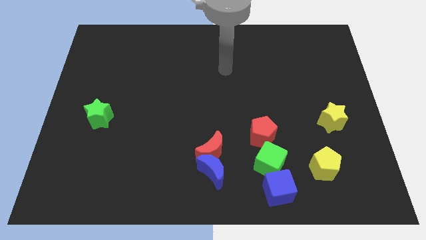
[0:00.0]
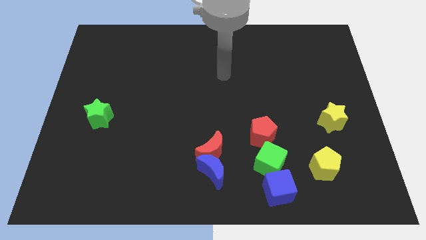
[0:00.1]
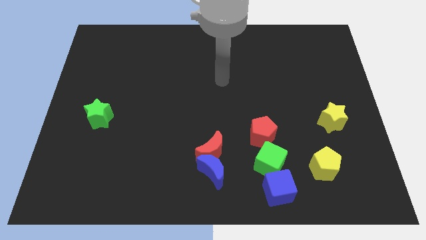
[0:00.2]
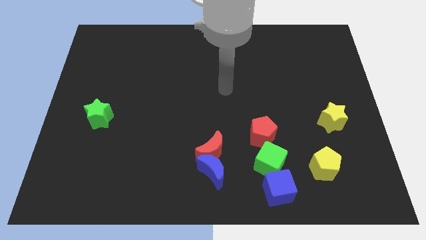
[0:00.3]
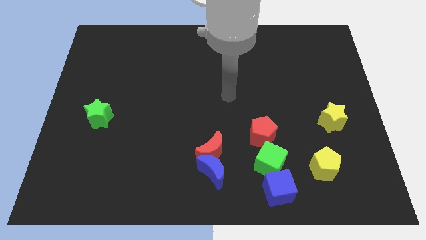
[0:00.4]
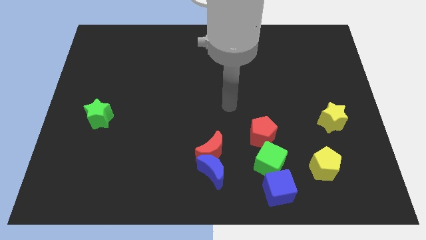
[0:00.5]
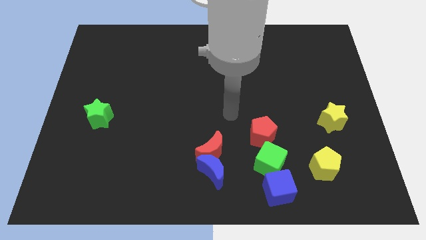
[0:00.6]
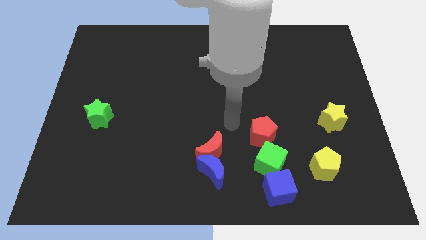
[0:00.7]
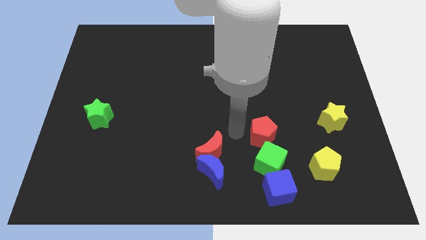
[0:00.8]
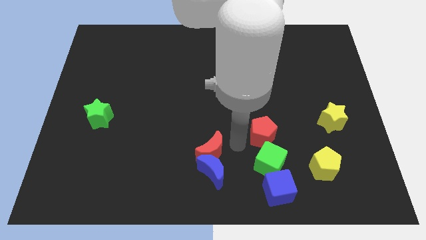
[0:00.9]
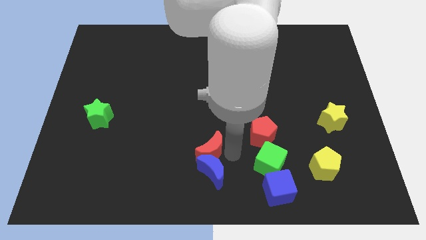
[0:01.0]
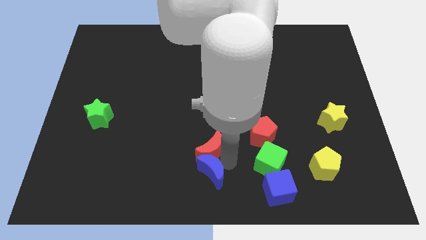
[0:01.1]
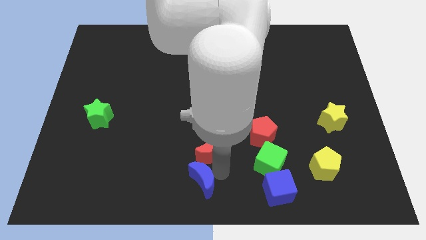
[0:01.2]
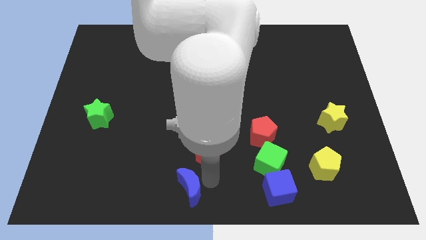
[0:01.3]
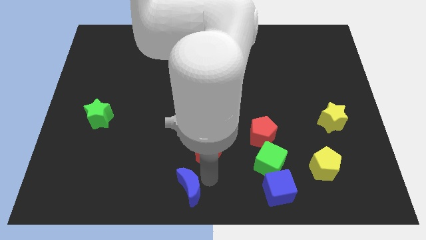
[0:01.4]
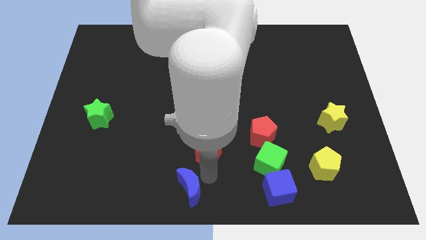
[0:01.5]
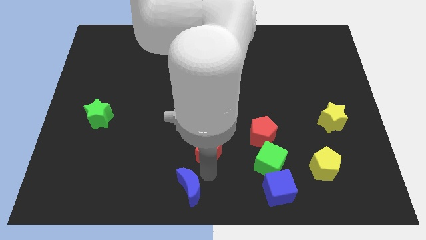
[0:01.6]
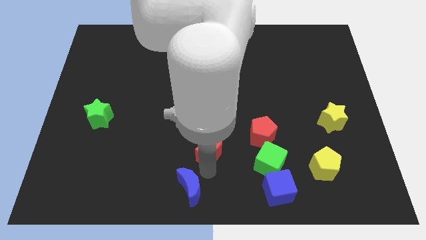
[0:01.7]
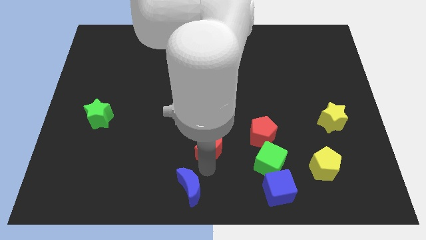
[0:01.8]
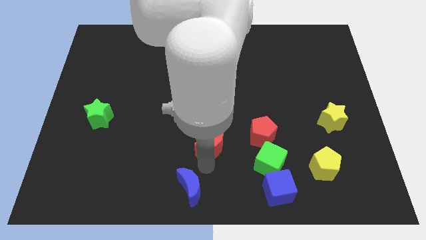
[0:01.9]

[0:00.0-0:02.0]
separate the red moon from the blue moon

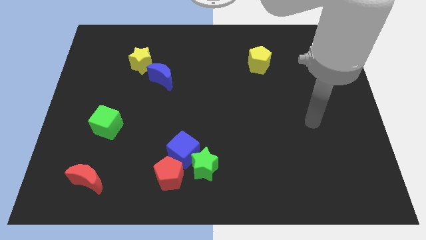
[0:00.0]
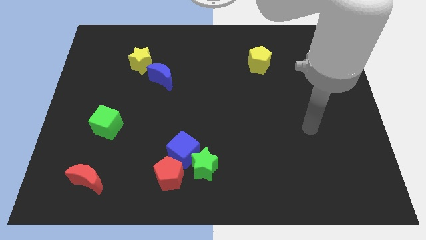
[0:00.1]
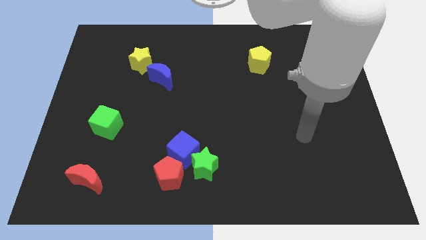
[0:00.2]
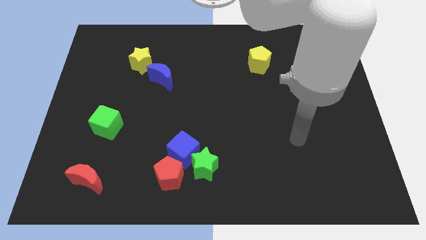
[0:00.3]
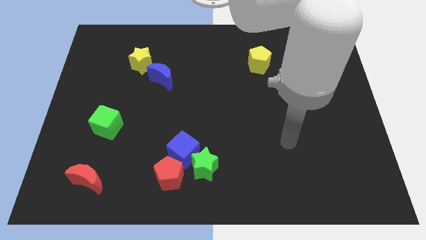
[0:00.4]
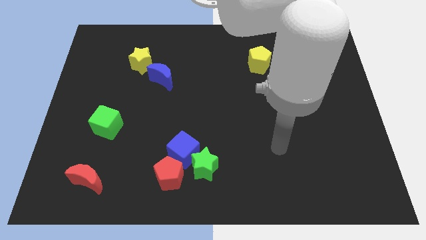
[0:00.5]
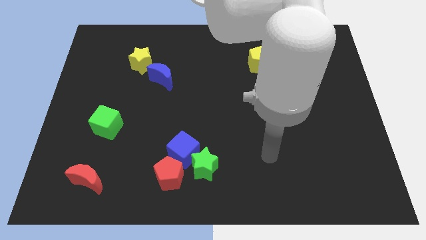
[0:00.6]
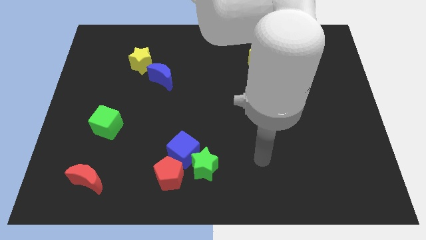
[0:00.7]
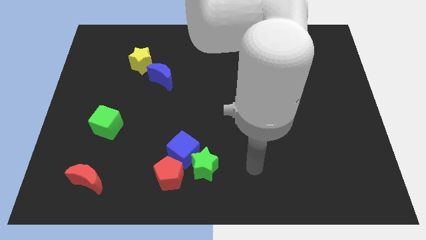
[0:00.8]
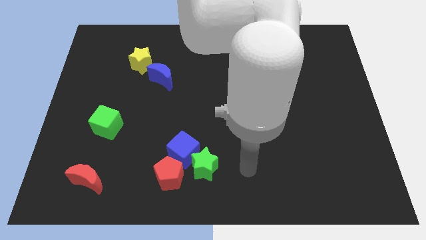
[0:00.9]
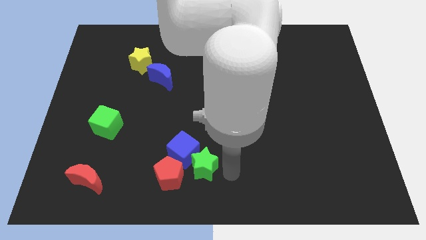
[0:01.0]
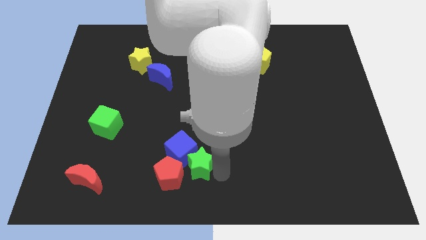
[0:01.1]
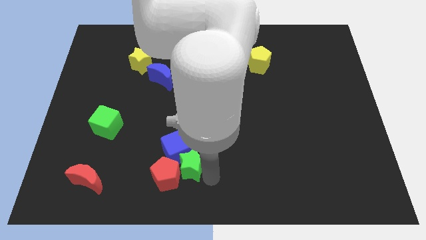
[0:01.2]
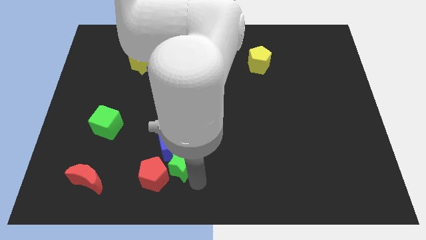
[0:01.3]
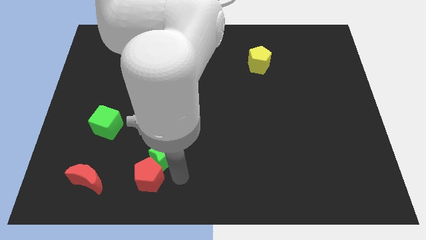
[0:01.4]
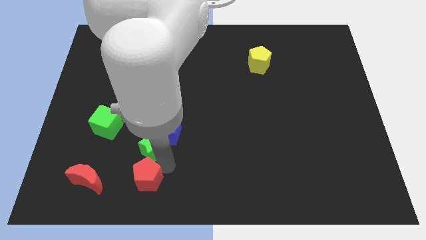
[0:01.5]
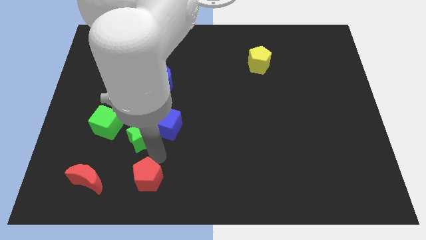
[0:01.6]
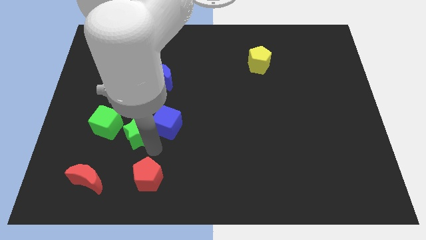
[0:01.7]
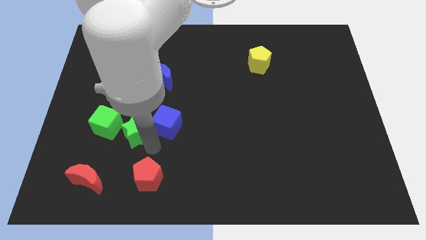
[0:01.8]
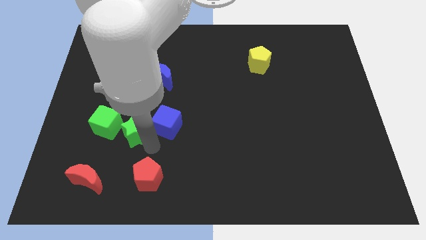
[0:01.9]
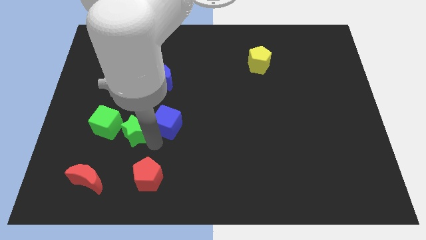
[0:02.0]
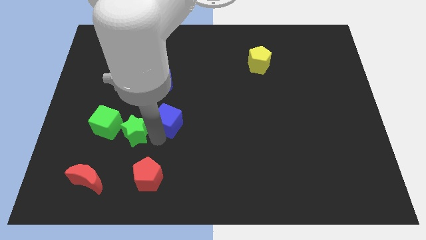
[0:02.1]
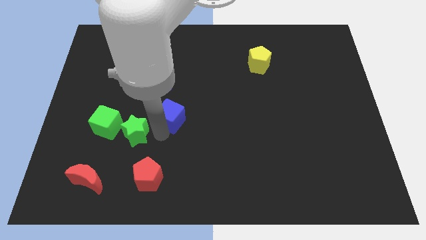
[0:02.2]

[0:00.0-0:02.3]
separate the blue cube from the green star and red pentagon

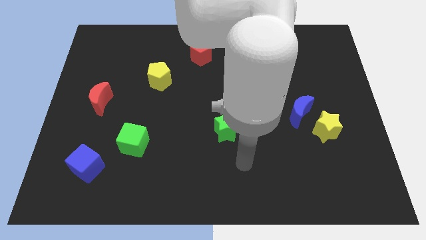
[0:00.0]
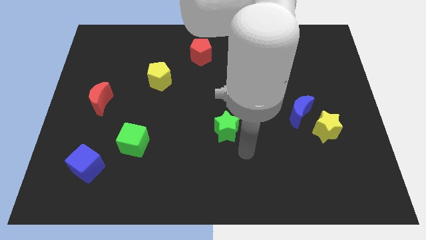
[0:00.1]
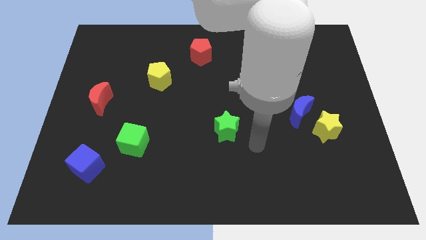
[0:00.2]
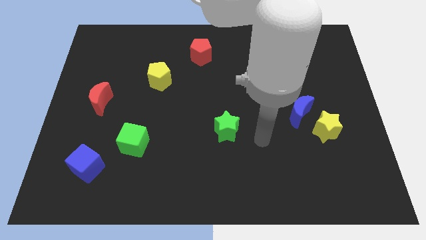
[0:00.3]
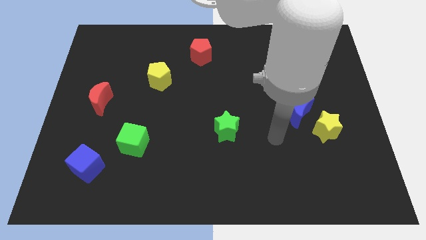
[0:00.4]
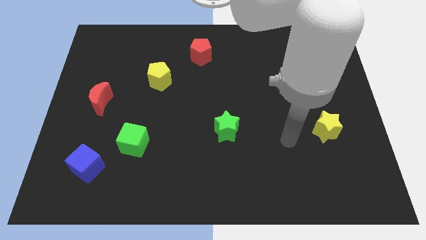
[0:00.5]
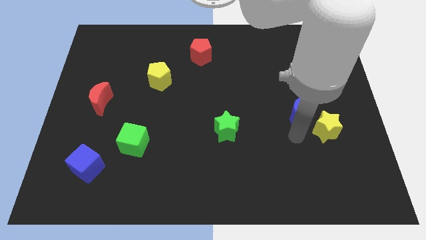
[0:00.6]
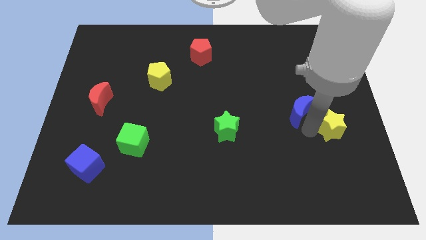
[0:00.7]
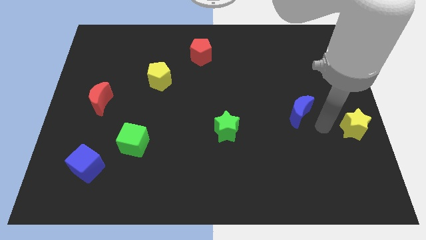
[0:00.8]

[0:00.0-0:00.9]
pull the blue moon apart from the yellow star

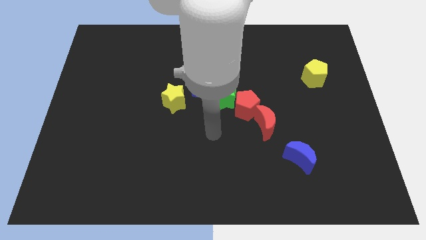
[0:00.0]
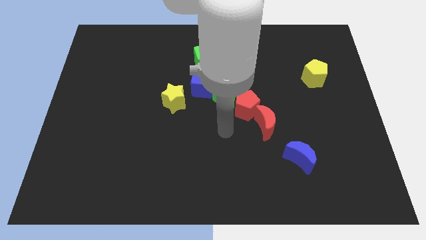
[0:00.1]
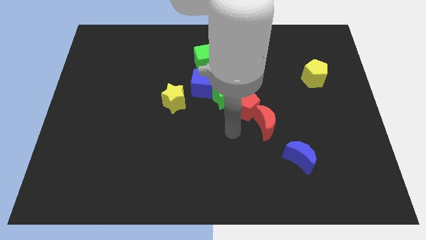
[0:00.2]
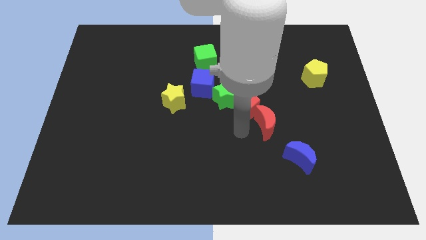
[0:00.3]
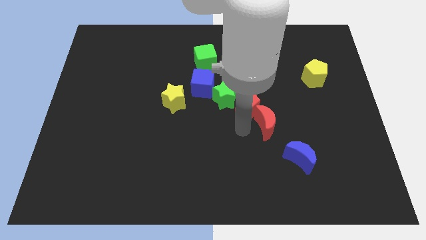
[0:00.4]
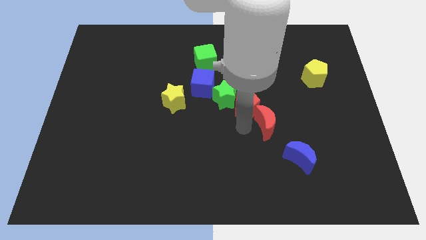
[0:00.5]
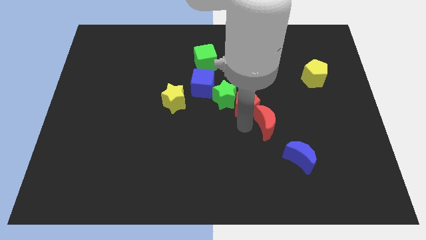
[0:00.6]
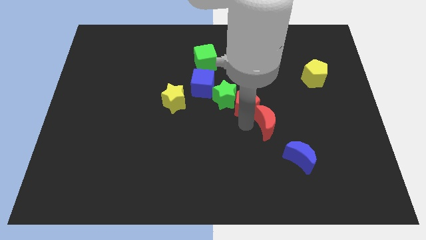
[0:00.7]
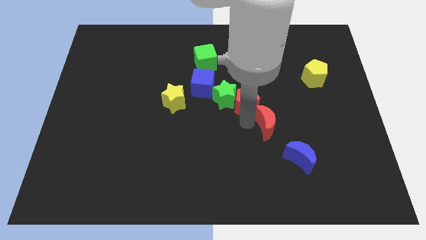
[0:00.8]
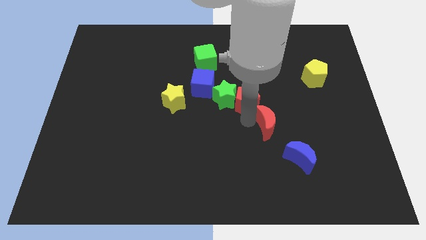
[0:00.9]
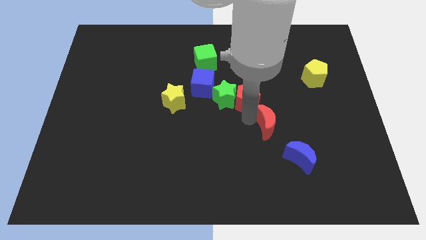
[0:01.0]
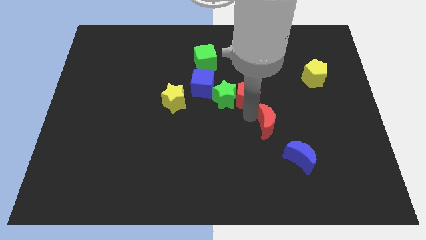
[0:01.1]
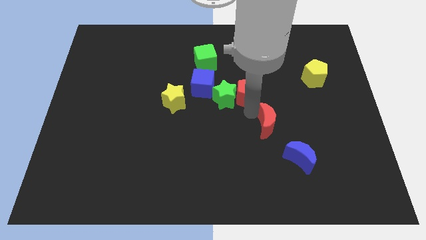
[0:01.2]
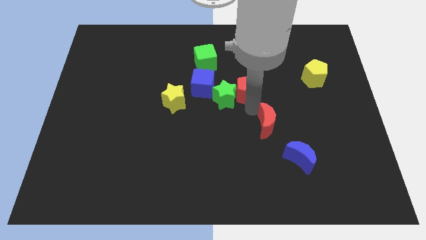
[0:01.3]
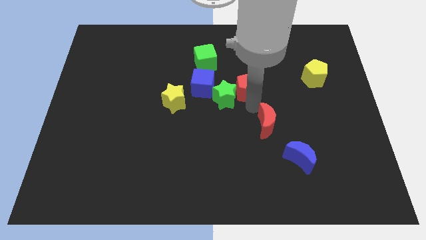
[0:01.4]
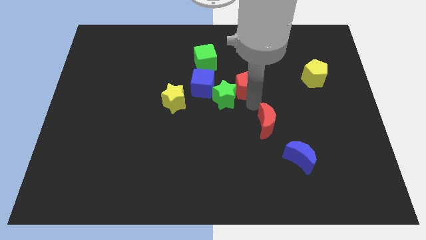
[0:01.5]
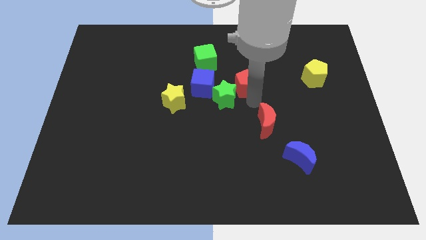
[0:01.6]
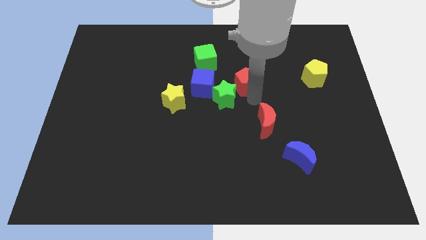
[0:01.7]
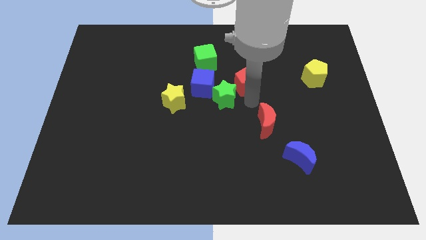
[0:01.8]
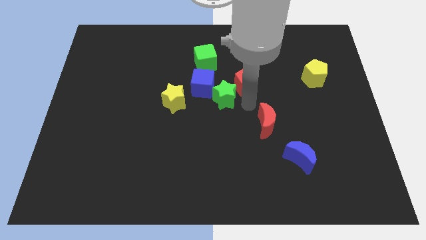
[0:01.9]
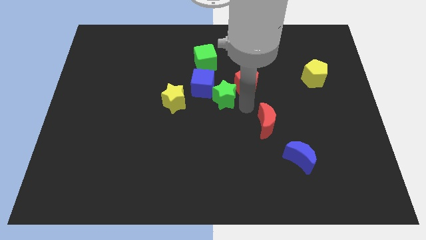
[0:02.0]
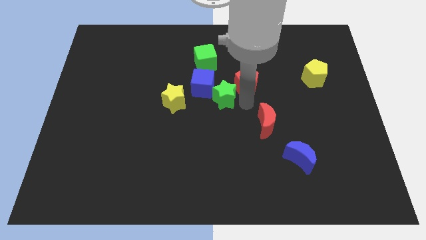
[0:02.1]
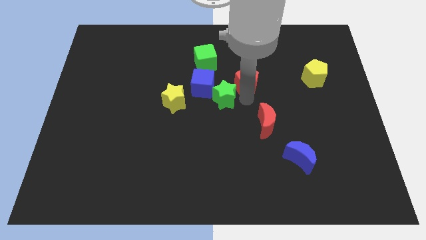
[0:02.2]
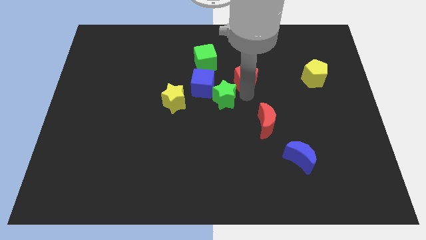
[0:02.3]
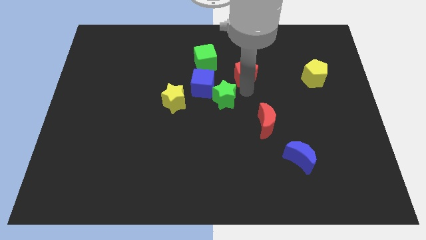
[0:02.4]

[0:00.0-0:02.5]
pull the red pentagon apart from the green star and red moon

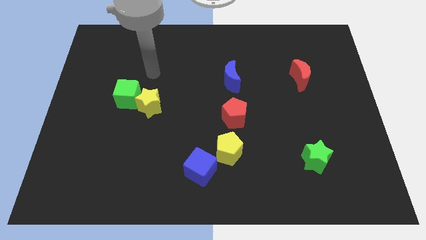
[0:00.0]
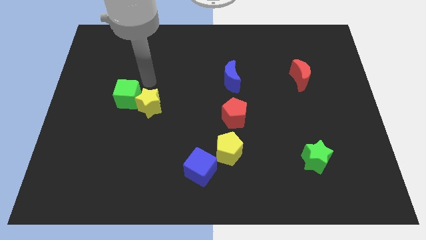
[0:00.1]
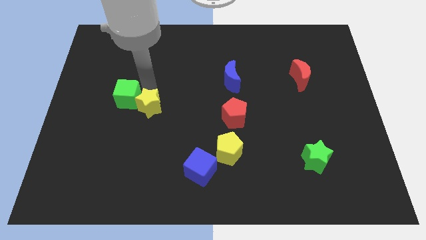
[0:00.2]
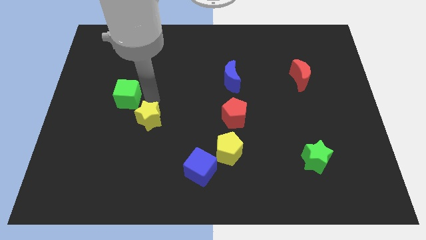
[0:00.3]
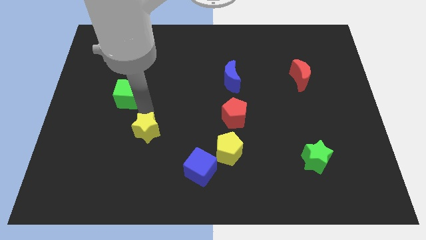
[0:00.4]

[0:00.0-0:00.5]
move the green cube away from the yellow star

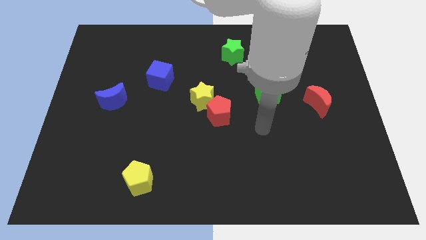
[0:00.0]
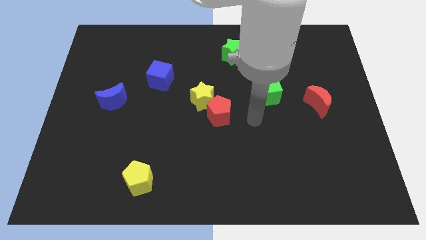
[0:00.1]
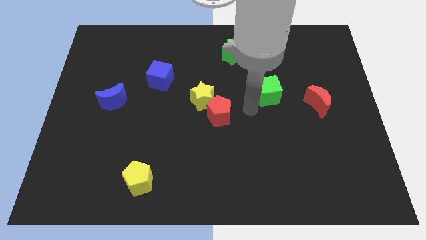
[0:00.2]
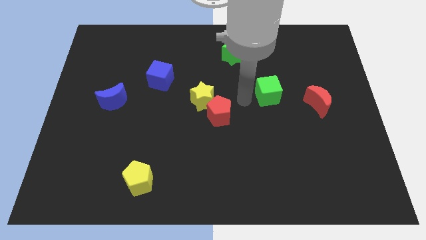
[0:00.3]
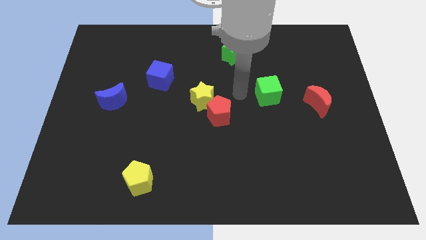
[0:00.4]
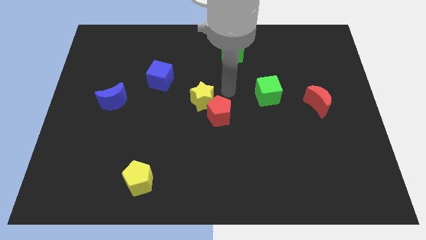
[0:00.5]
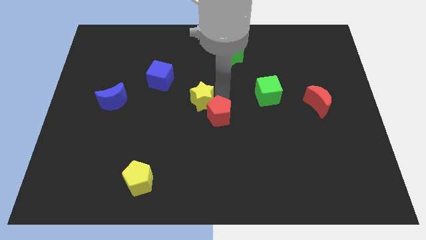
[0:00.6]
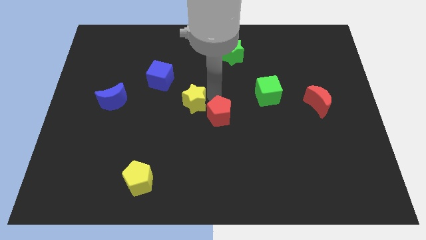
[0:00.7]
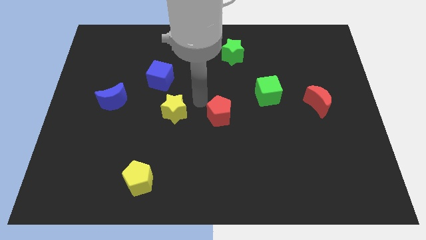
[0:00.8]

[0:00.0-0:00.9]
pull the red pentagon apart from the yellow star

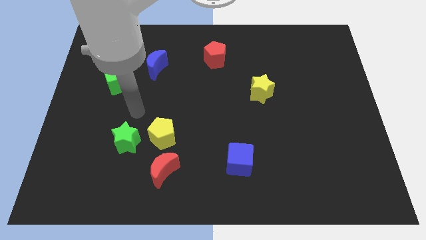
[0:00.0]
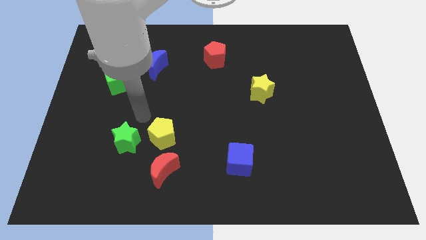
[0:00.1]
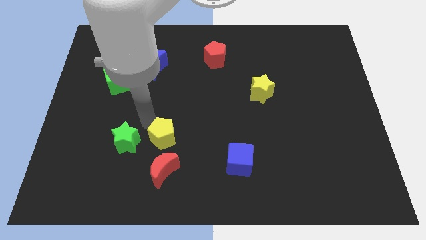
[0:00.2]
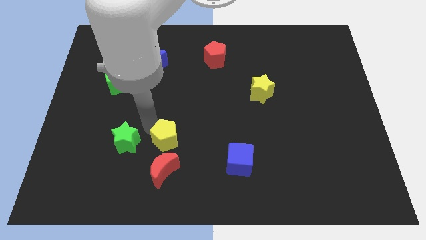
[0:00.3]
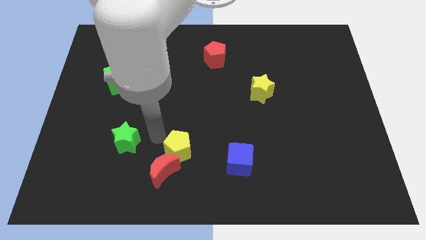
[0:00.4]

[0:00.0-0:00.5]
separate the green star from the yellow pentagon
